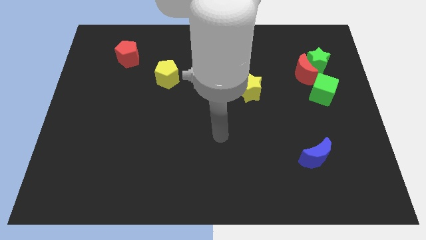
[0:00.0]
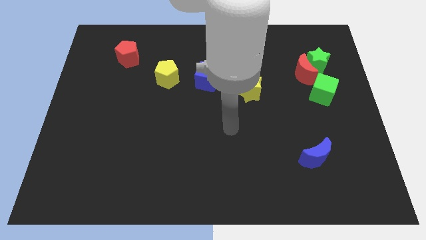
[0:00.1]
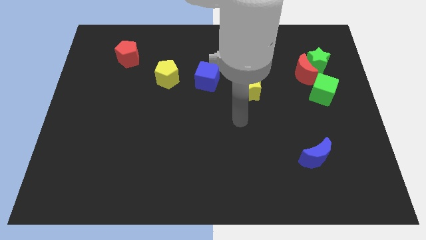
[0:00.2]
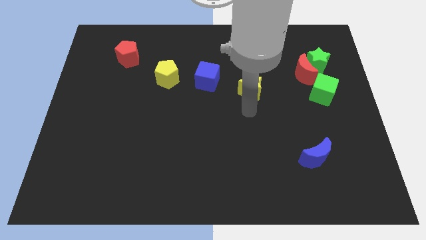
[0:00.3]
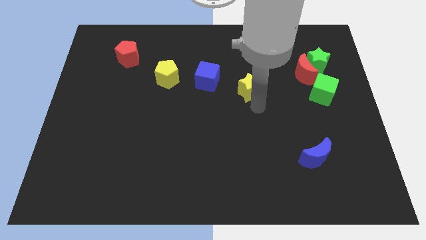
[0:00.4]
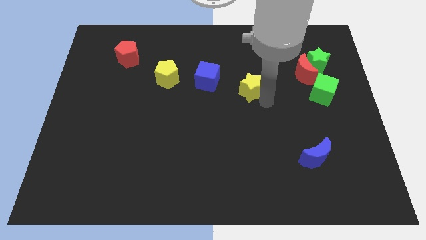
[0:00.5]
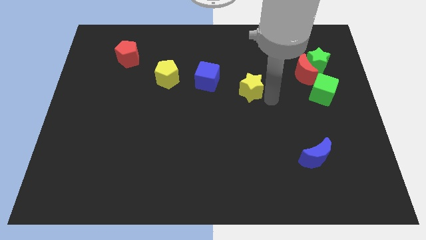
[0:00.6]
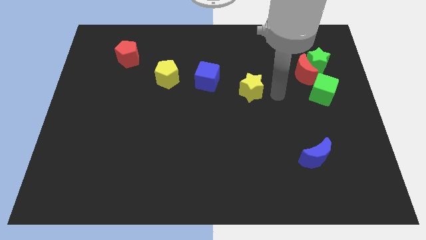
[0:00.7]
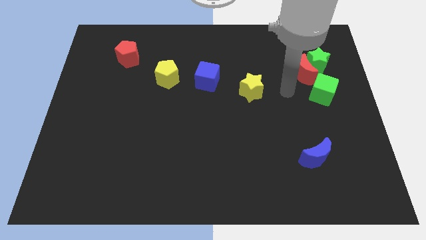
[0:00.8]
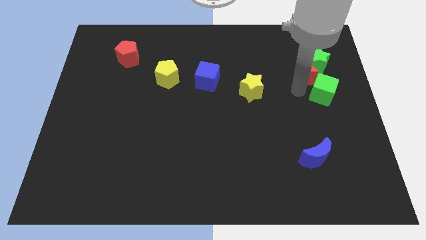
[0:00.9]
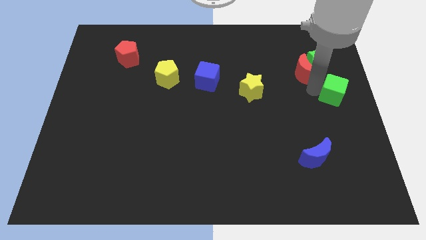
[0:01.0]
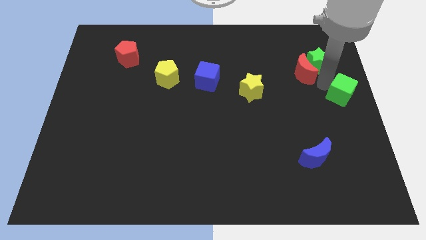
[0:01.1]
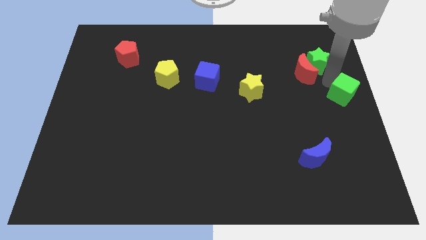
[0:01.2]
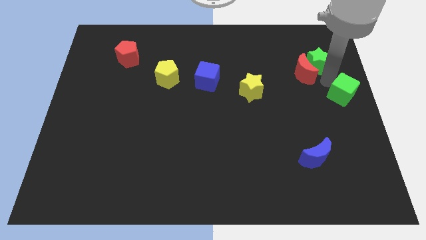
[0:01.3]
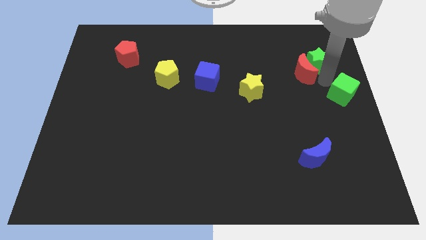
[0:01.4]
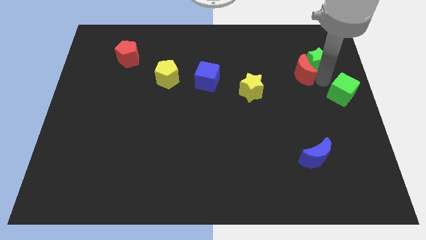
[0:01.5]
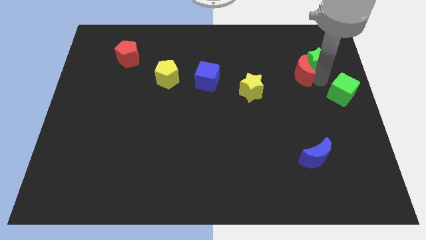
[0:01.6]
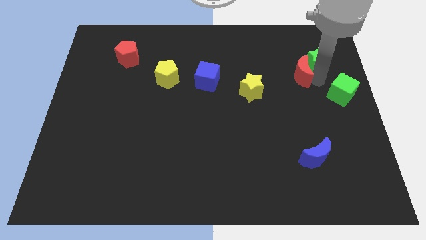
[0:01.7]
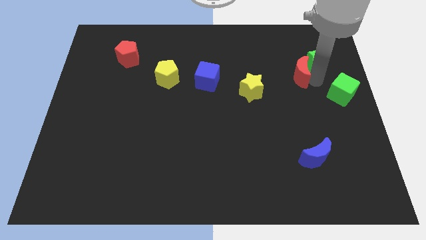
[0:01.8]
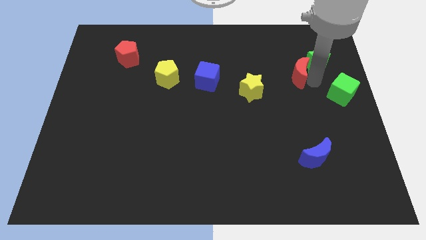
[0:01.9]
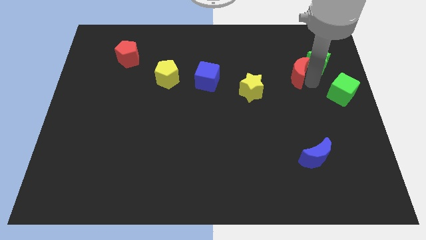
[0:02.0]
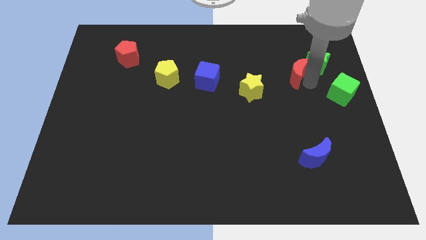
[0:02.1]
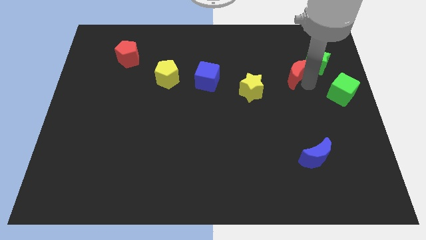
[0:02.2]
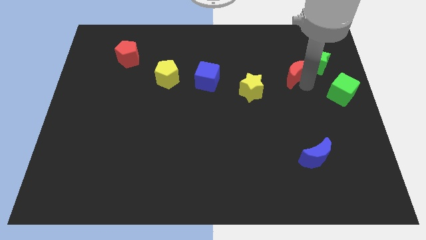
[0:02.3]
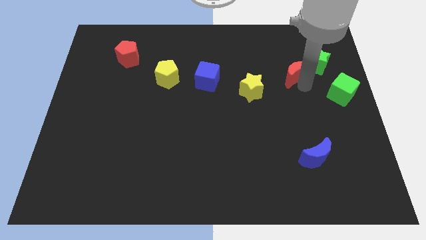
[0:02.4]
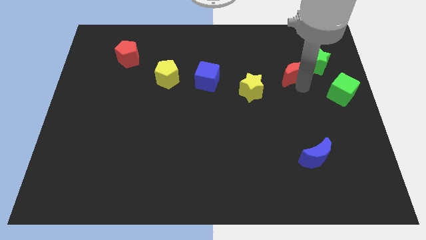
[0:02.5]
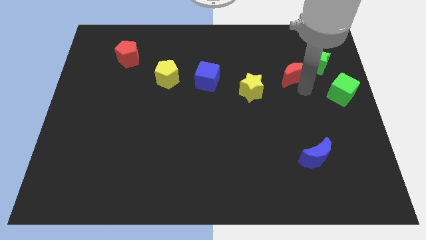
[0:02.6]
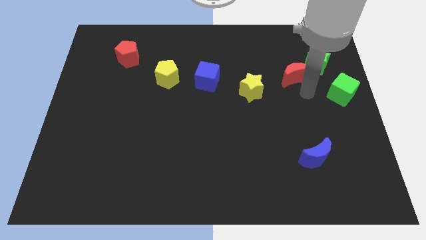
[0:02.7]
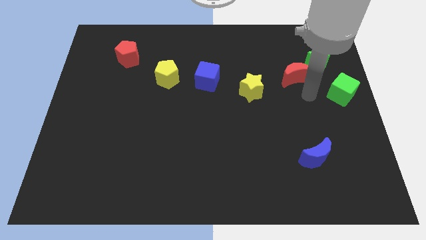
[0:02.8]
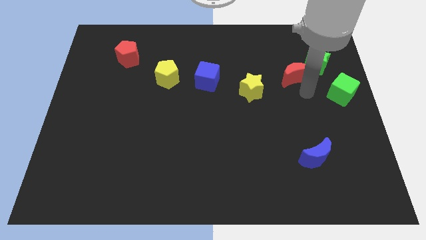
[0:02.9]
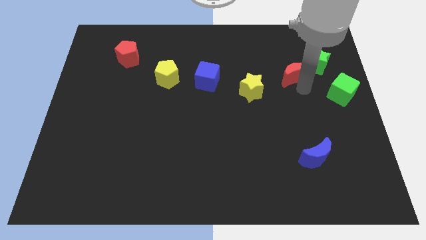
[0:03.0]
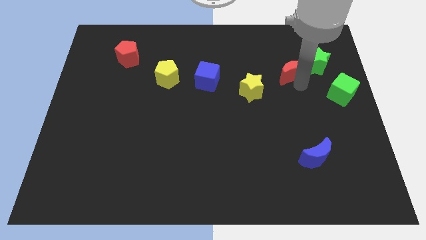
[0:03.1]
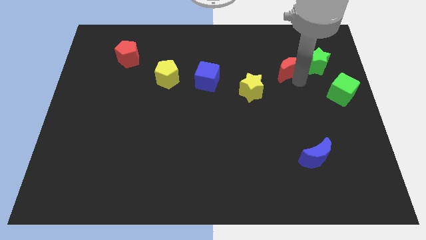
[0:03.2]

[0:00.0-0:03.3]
separate the red moon from the green star and green cube

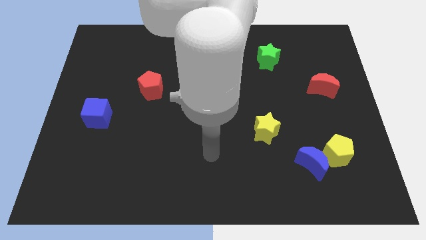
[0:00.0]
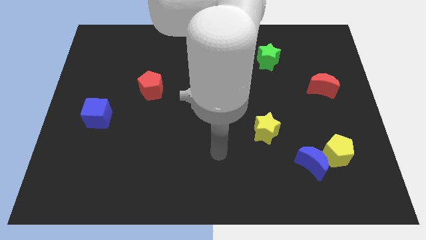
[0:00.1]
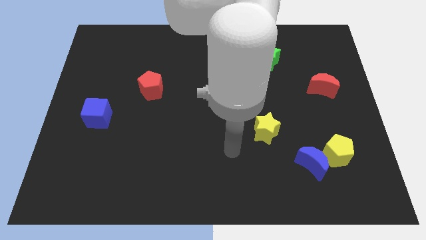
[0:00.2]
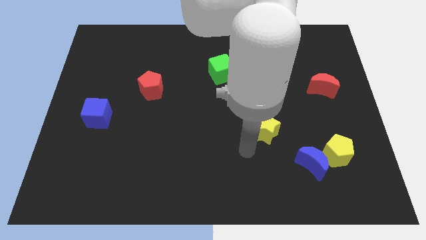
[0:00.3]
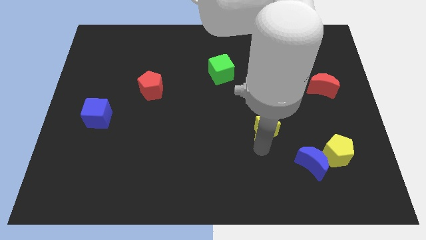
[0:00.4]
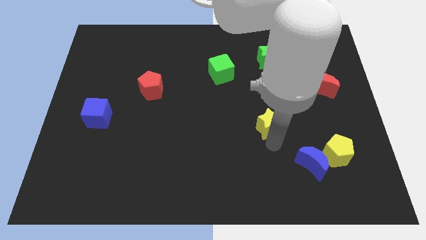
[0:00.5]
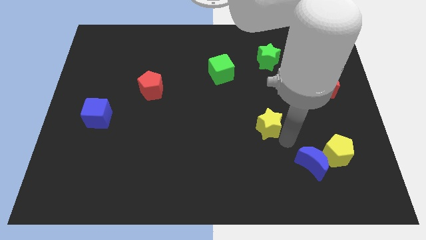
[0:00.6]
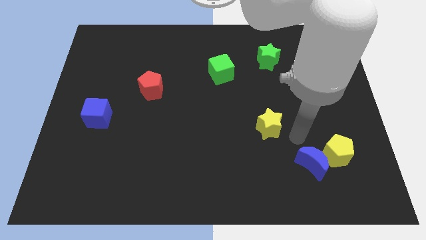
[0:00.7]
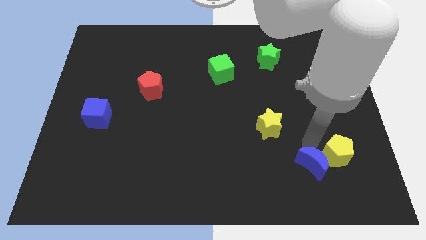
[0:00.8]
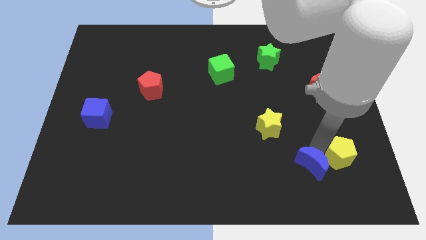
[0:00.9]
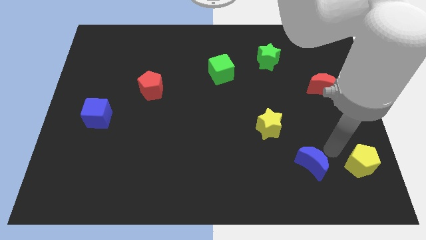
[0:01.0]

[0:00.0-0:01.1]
separate the blue moon from the yellow pentagon

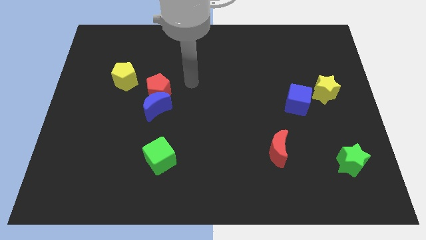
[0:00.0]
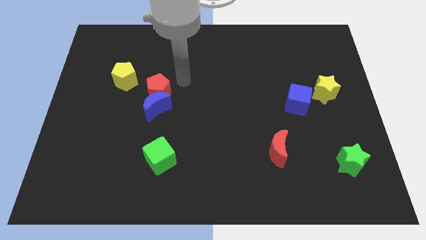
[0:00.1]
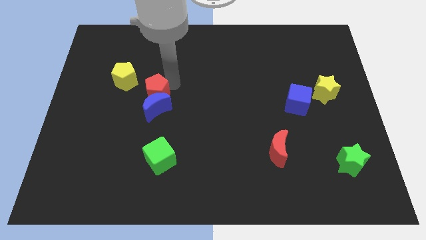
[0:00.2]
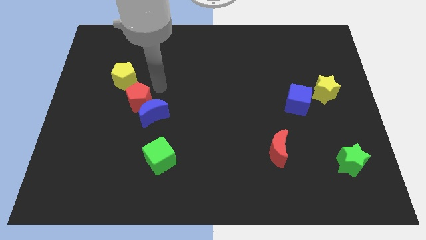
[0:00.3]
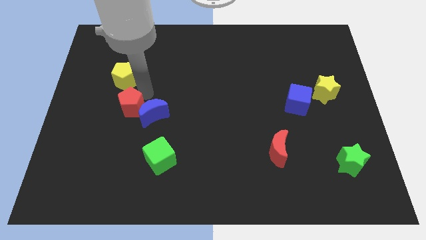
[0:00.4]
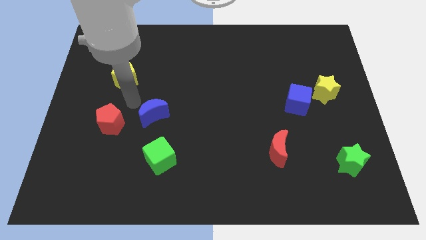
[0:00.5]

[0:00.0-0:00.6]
pull the blue moon apart from the red pentagon

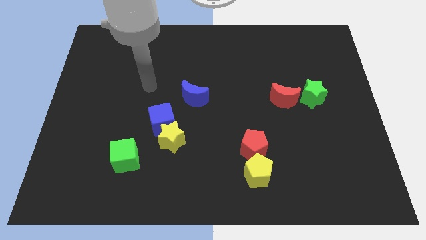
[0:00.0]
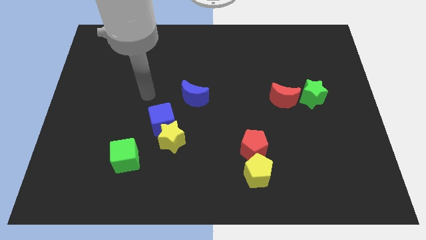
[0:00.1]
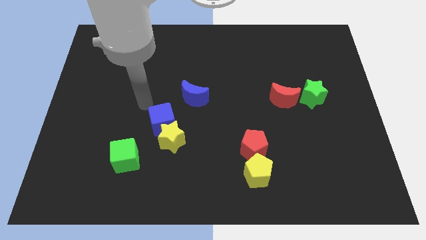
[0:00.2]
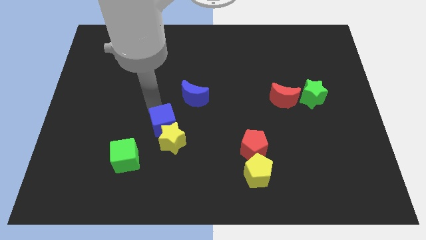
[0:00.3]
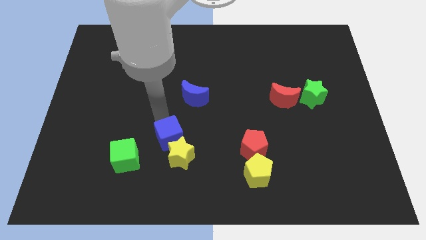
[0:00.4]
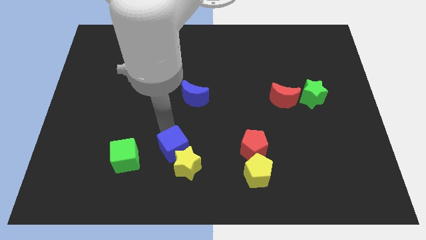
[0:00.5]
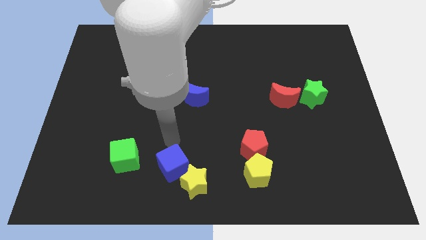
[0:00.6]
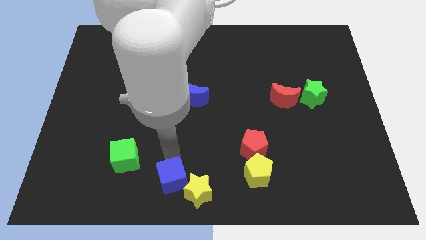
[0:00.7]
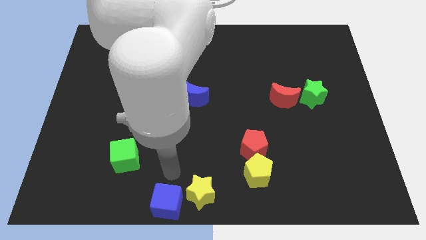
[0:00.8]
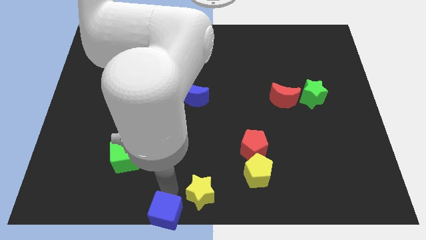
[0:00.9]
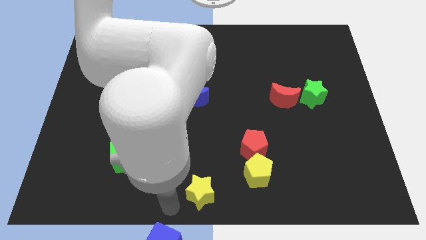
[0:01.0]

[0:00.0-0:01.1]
separate the yellow star from the blue cube

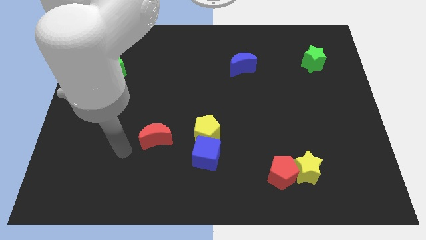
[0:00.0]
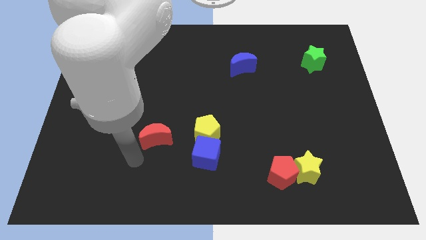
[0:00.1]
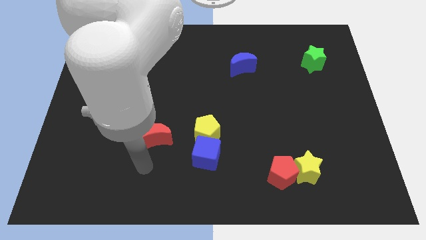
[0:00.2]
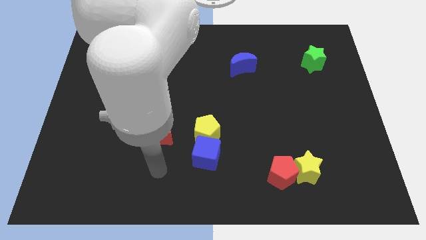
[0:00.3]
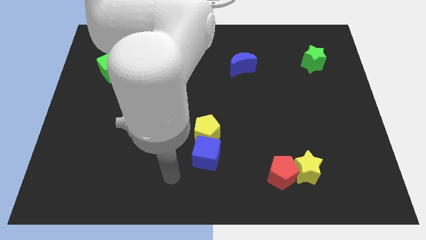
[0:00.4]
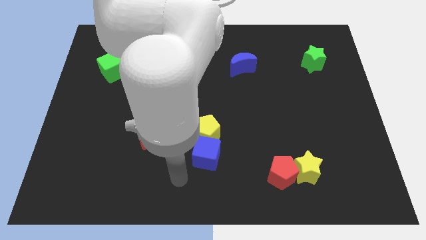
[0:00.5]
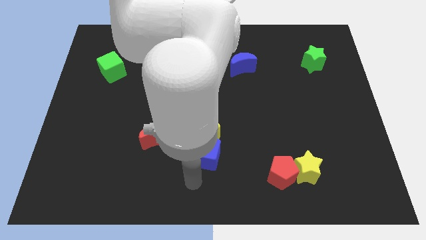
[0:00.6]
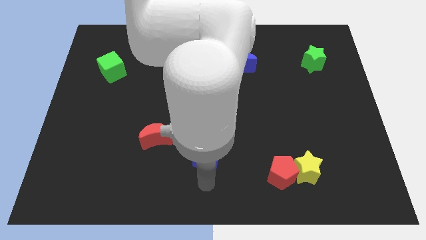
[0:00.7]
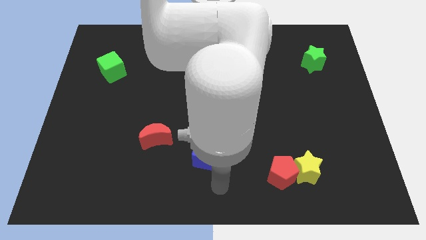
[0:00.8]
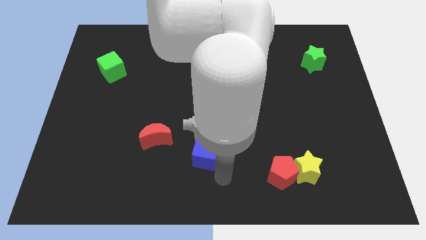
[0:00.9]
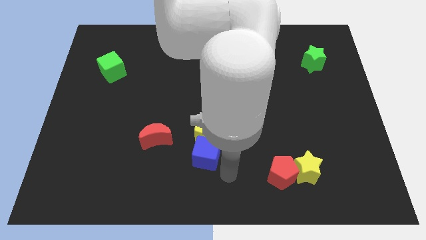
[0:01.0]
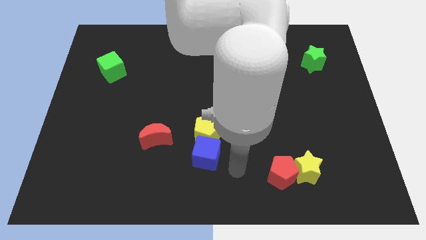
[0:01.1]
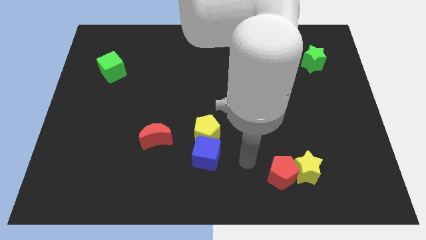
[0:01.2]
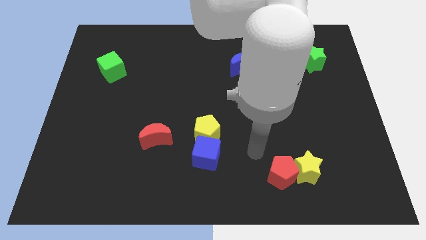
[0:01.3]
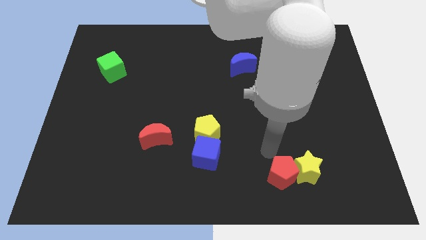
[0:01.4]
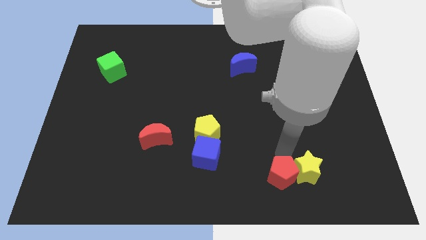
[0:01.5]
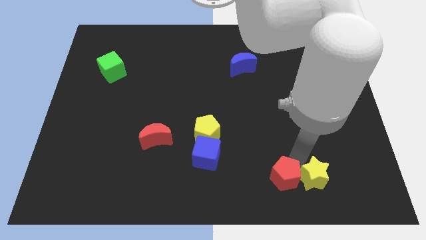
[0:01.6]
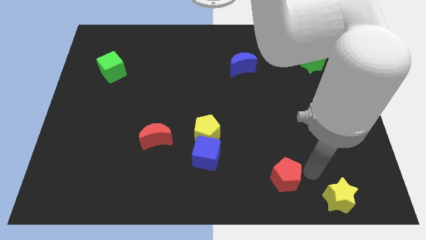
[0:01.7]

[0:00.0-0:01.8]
separate the red pentagon from the yellow star

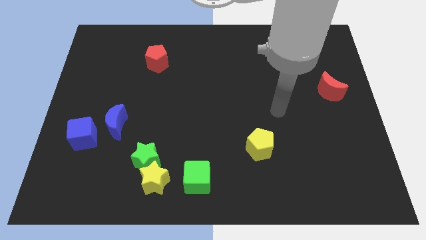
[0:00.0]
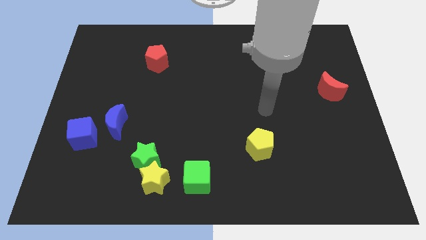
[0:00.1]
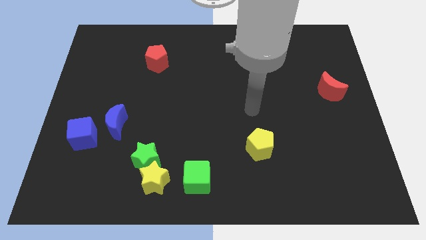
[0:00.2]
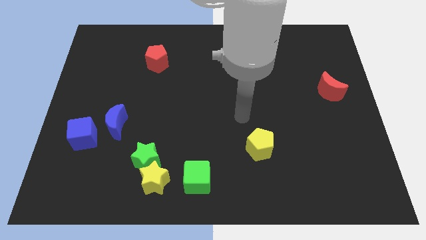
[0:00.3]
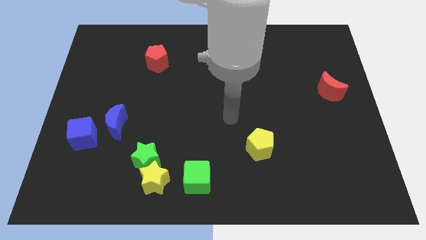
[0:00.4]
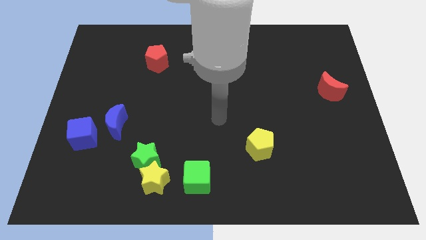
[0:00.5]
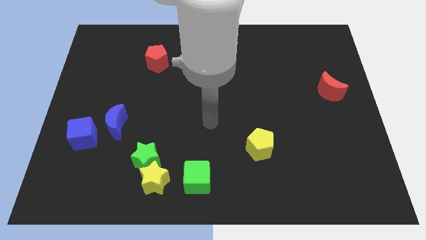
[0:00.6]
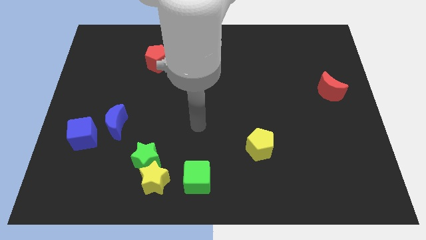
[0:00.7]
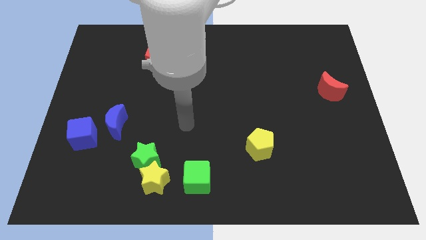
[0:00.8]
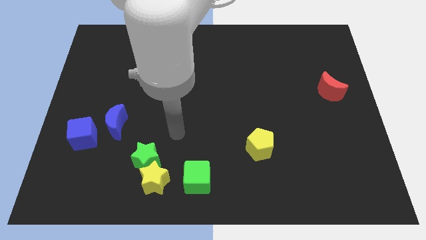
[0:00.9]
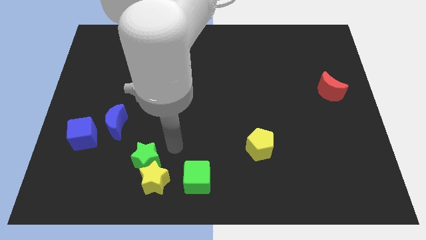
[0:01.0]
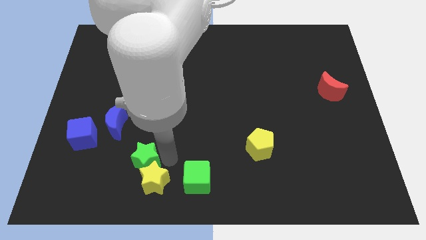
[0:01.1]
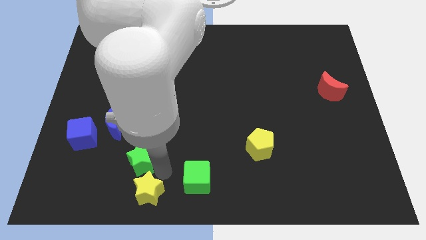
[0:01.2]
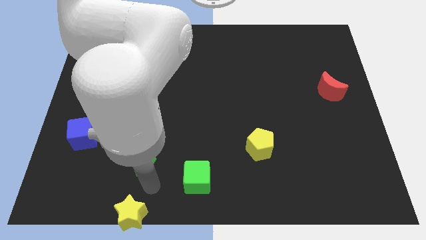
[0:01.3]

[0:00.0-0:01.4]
move the green star away from the yellow star
